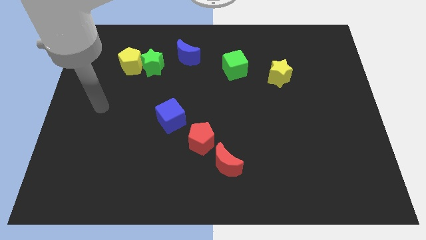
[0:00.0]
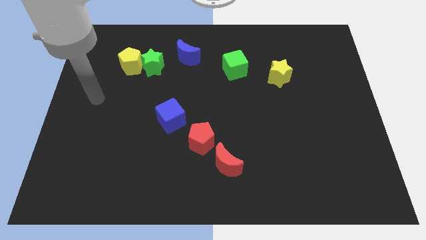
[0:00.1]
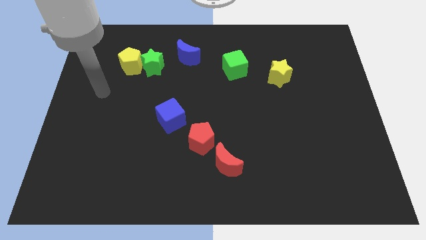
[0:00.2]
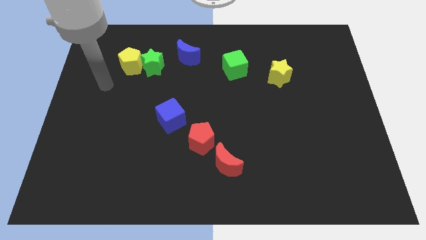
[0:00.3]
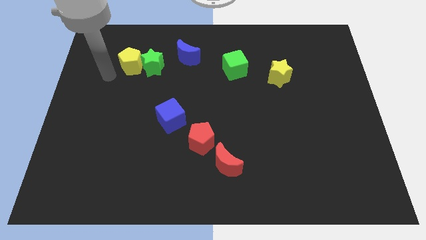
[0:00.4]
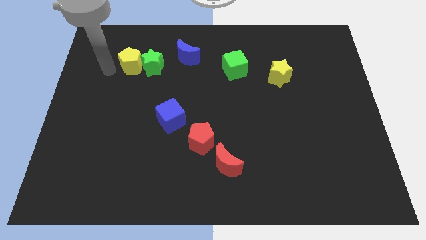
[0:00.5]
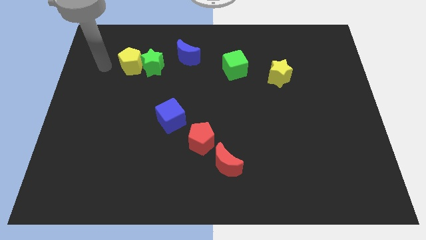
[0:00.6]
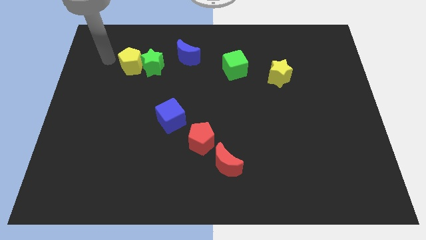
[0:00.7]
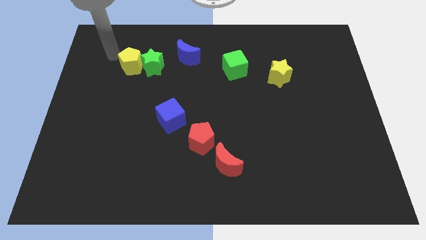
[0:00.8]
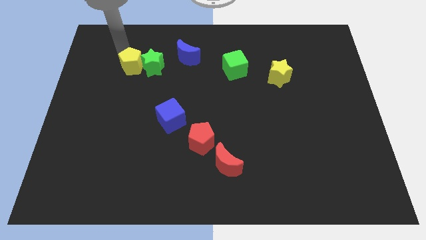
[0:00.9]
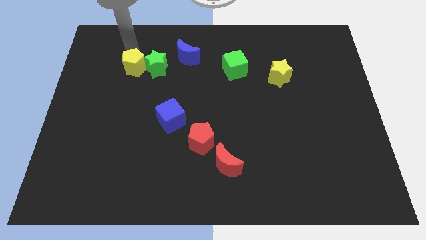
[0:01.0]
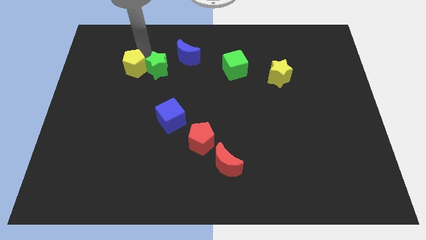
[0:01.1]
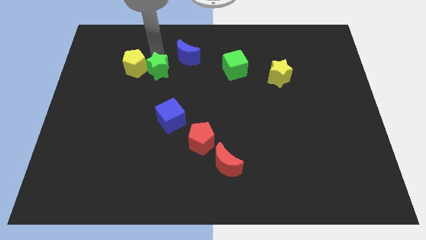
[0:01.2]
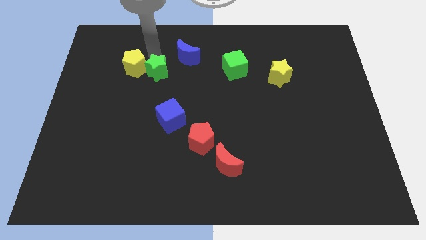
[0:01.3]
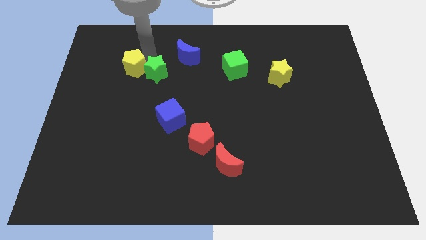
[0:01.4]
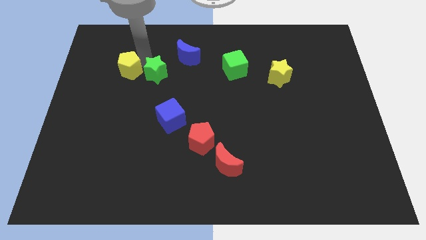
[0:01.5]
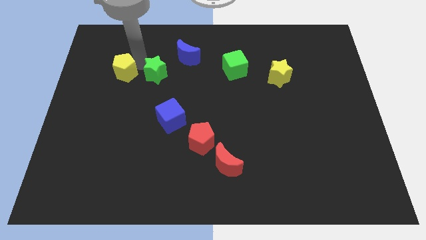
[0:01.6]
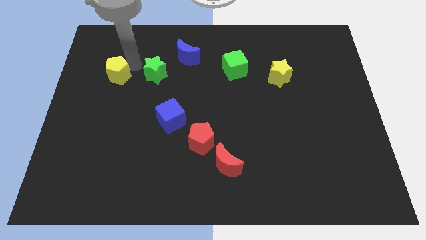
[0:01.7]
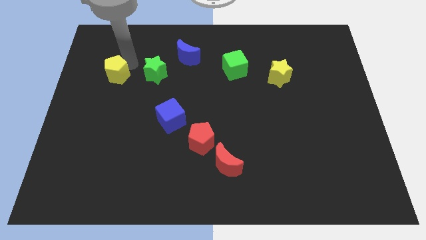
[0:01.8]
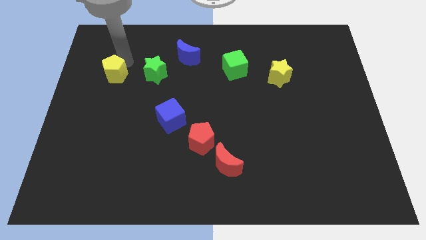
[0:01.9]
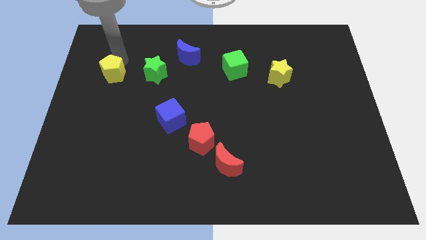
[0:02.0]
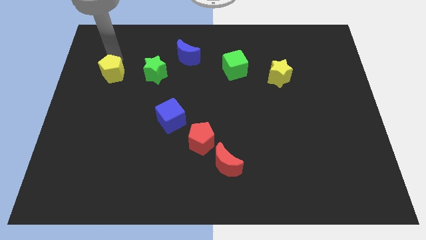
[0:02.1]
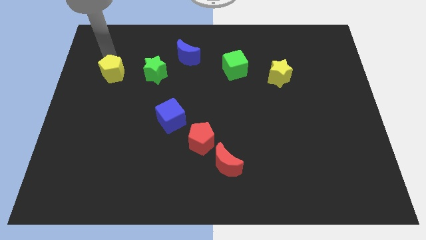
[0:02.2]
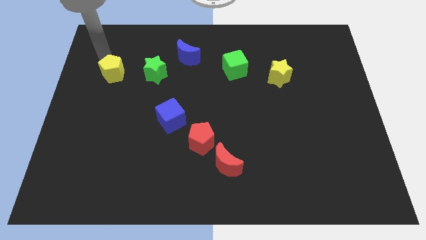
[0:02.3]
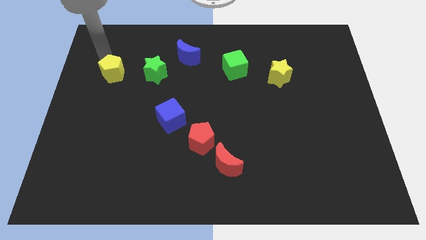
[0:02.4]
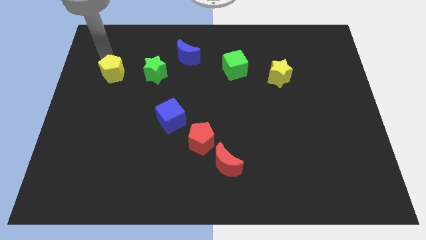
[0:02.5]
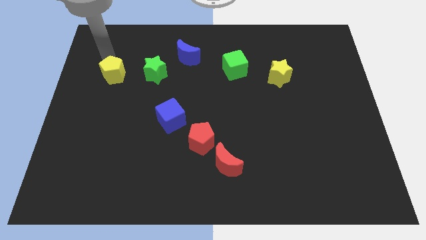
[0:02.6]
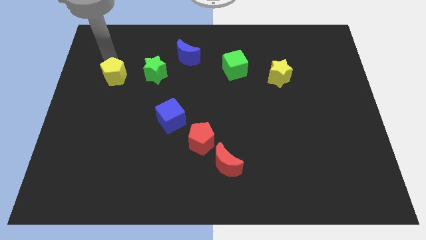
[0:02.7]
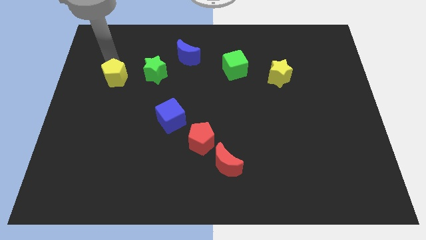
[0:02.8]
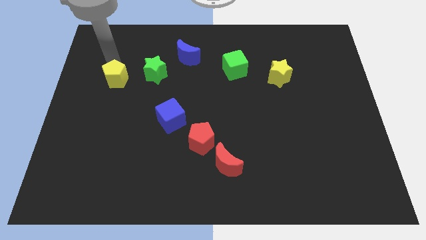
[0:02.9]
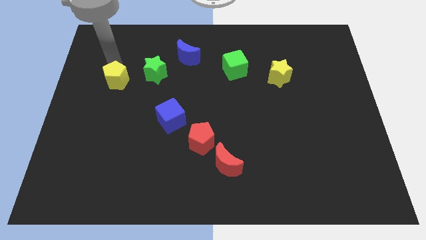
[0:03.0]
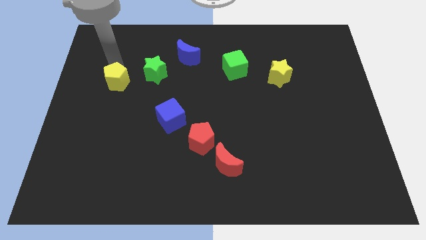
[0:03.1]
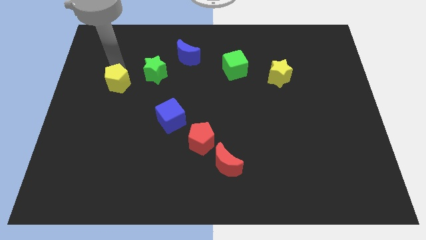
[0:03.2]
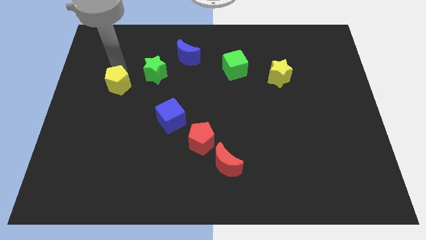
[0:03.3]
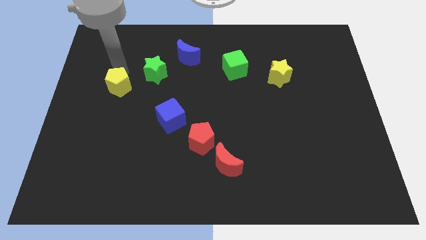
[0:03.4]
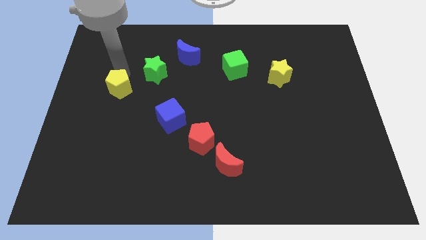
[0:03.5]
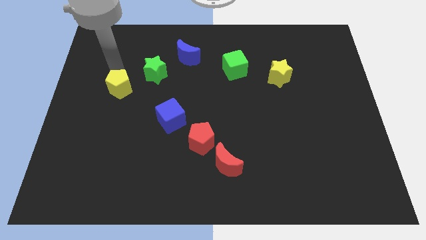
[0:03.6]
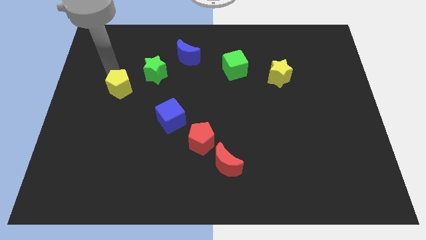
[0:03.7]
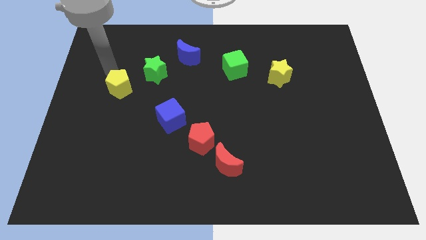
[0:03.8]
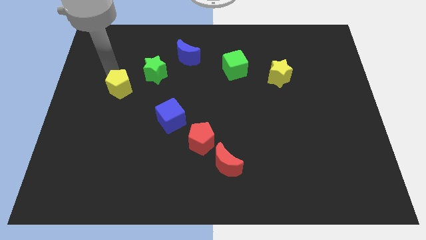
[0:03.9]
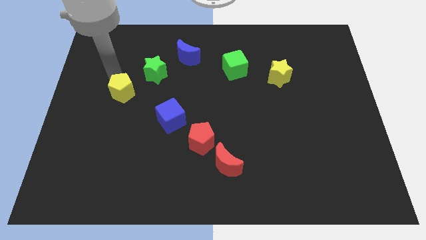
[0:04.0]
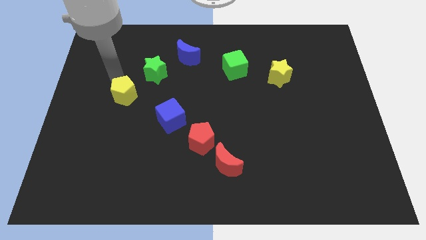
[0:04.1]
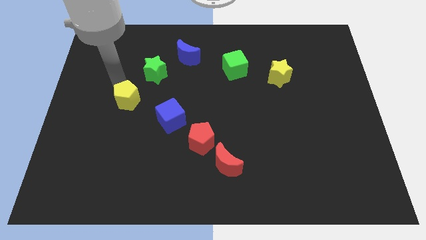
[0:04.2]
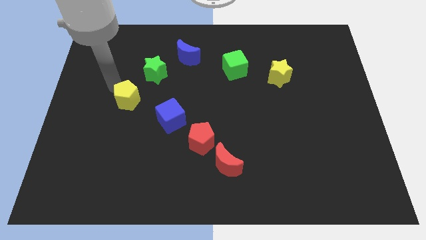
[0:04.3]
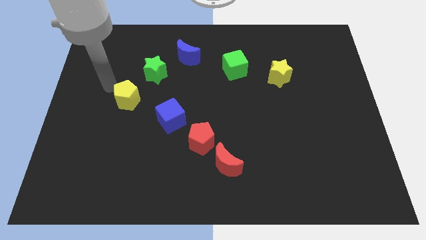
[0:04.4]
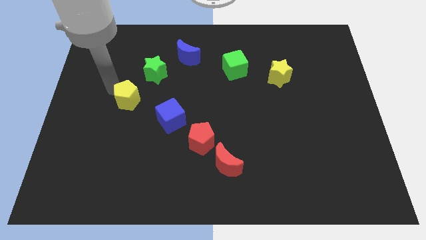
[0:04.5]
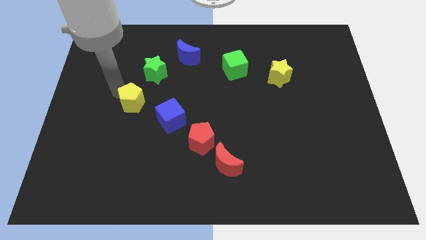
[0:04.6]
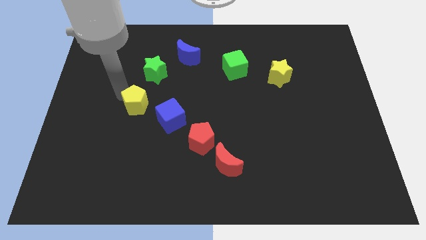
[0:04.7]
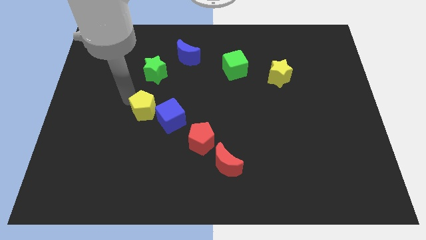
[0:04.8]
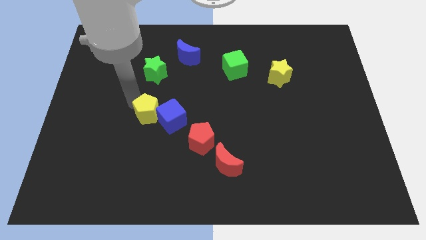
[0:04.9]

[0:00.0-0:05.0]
put the yellow pentagon close to the blue cube

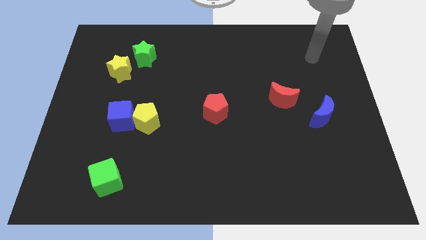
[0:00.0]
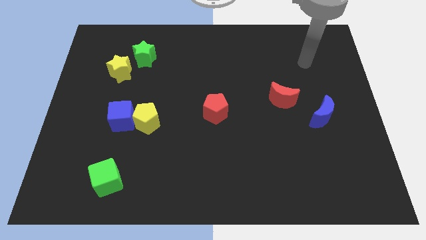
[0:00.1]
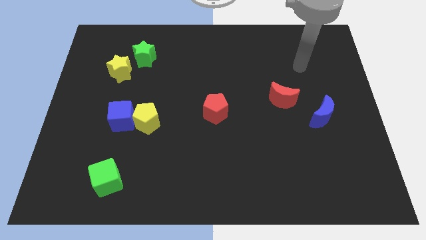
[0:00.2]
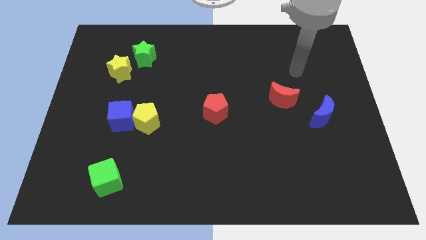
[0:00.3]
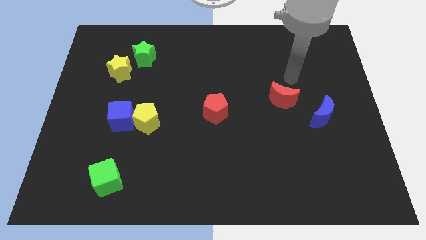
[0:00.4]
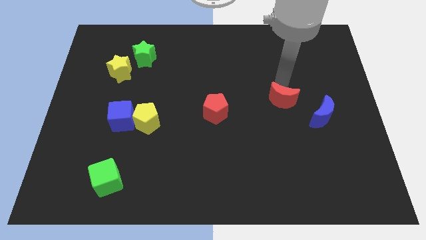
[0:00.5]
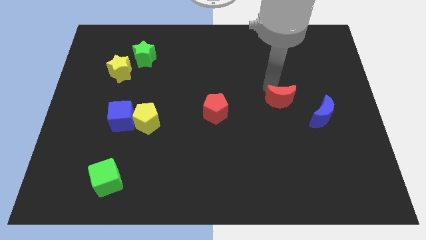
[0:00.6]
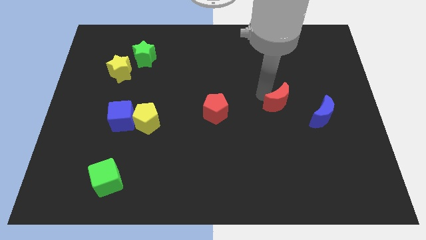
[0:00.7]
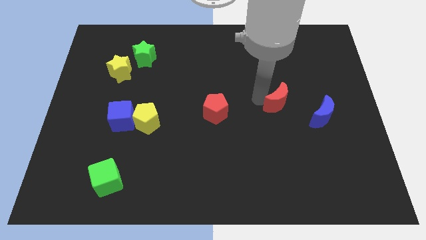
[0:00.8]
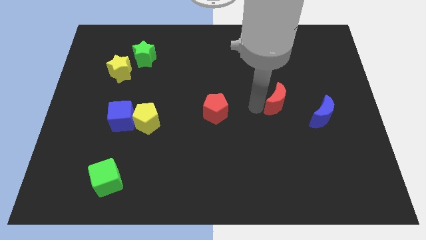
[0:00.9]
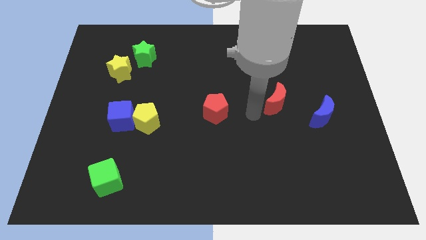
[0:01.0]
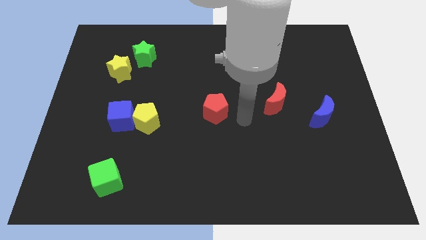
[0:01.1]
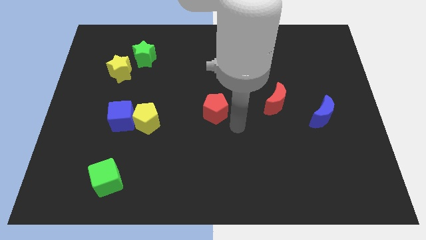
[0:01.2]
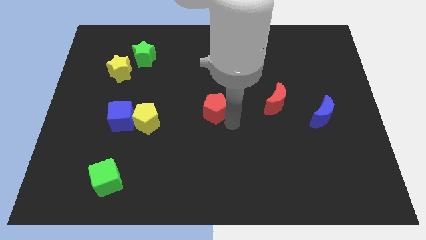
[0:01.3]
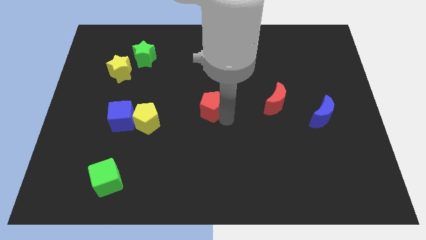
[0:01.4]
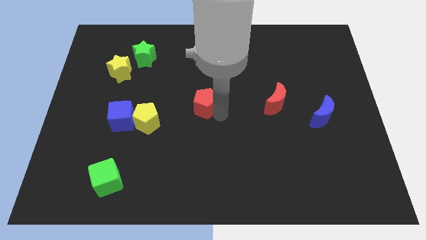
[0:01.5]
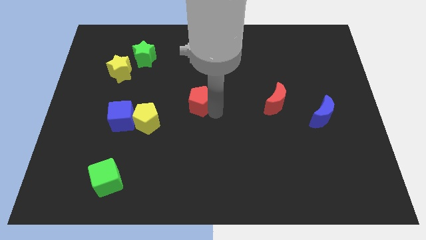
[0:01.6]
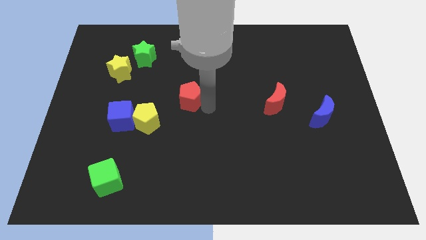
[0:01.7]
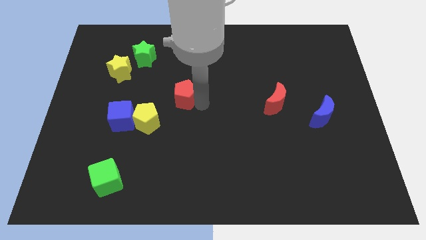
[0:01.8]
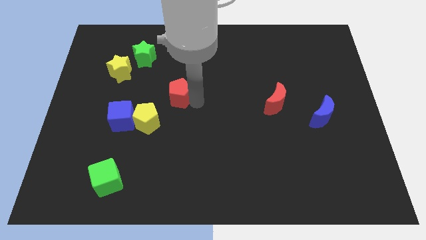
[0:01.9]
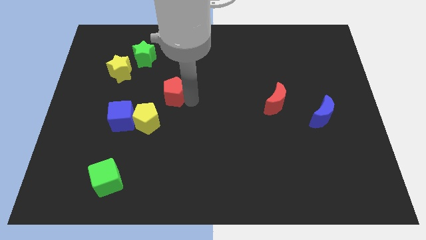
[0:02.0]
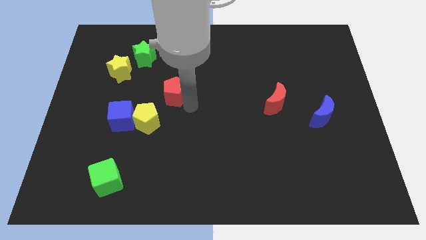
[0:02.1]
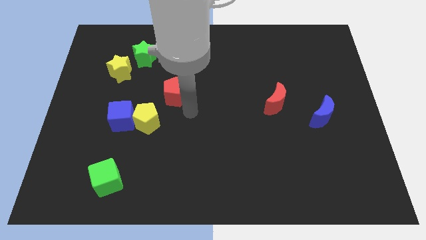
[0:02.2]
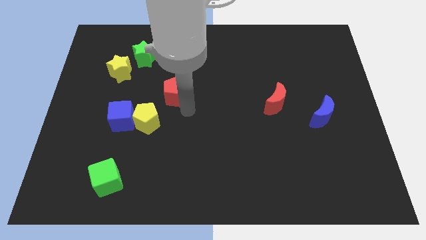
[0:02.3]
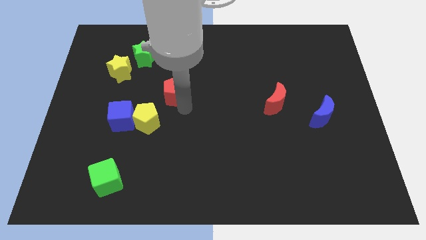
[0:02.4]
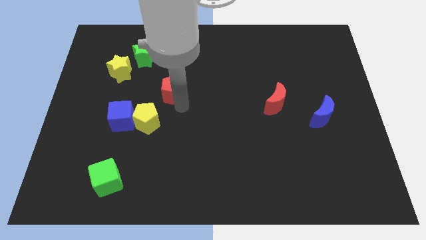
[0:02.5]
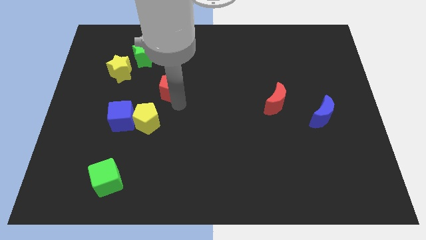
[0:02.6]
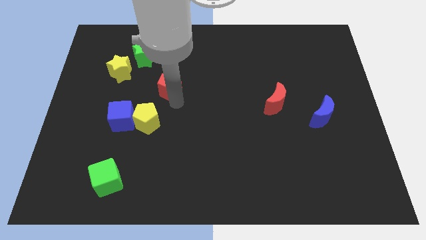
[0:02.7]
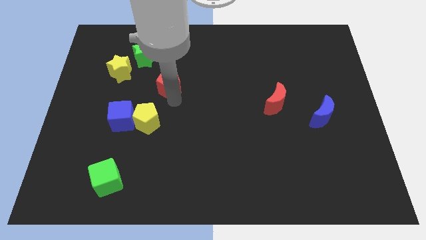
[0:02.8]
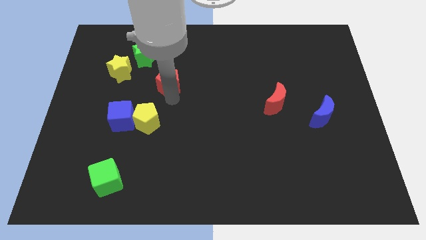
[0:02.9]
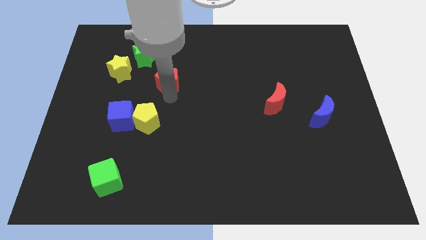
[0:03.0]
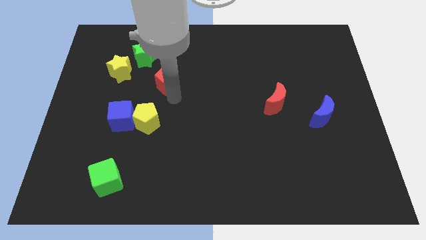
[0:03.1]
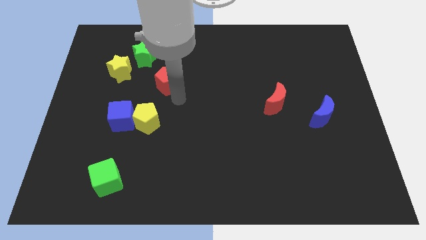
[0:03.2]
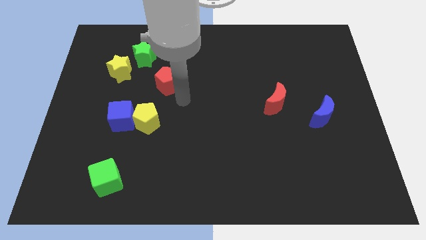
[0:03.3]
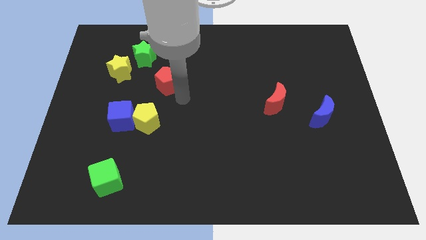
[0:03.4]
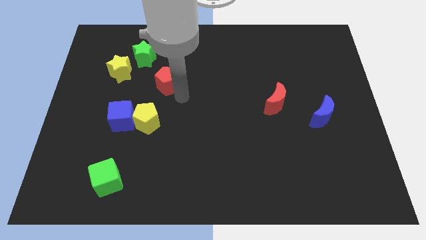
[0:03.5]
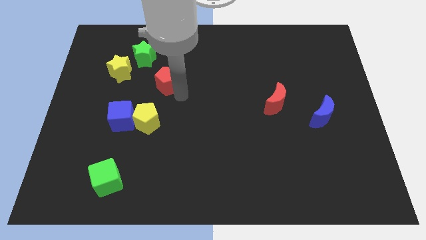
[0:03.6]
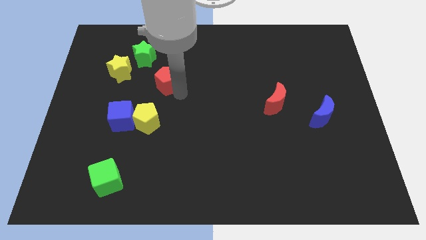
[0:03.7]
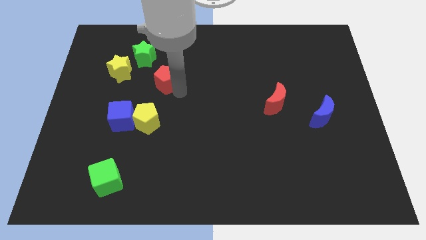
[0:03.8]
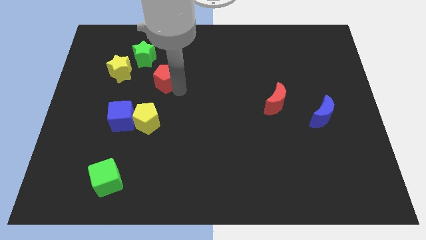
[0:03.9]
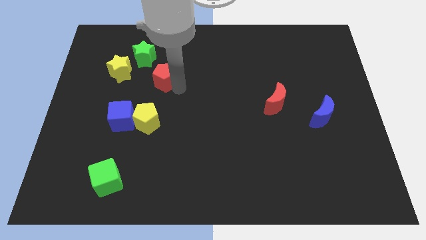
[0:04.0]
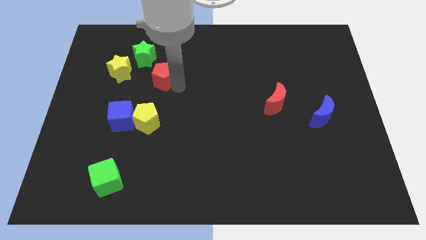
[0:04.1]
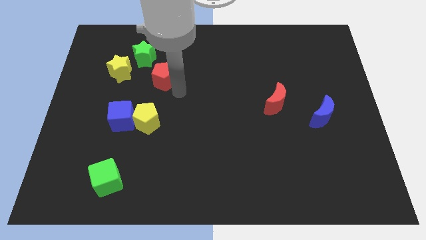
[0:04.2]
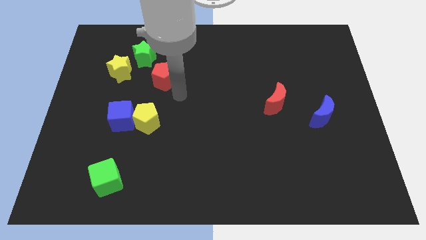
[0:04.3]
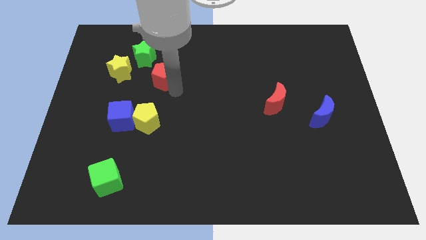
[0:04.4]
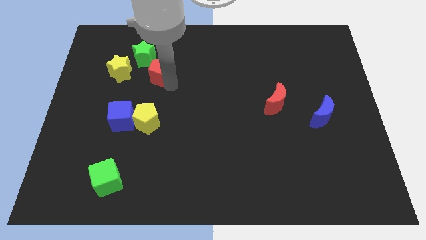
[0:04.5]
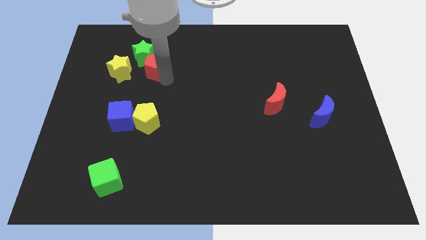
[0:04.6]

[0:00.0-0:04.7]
slide the red pentagon next to the green star
